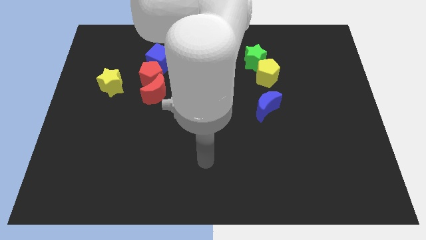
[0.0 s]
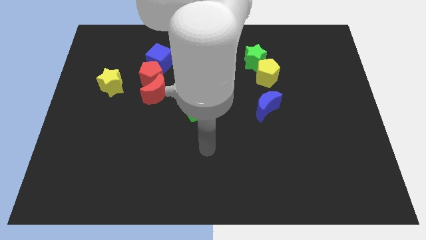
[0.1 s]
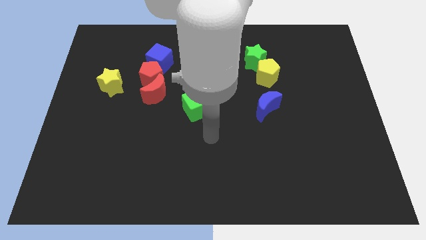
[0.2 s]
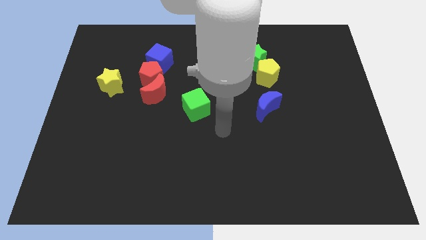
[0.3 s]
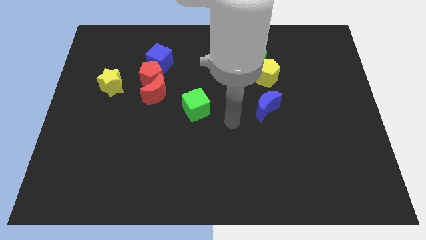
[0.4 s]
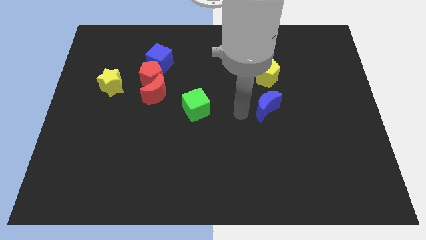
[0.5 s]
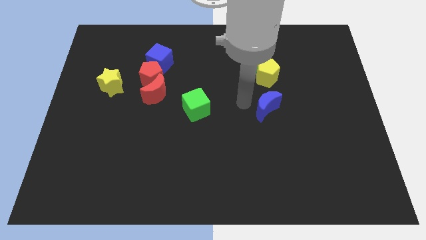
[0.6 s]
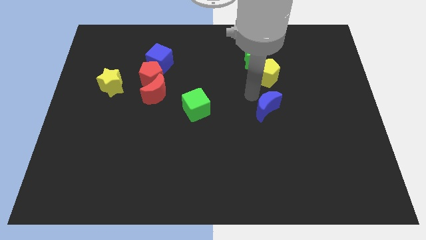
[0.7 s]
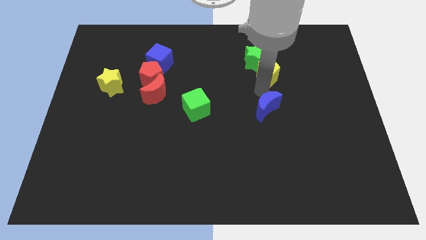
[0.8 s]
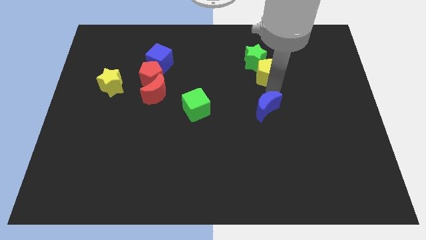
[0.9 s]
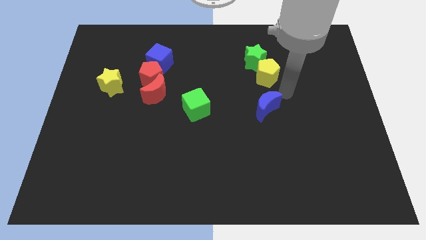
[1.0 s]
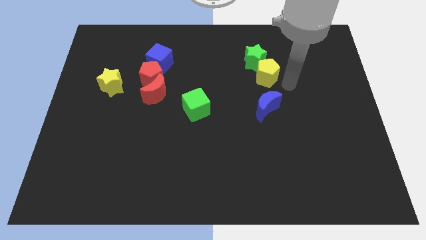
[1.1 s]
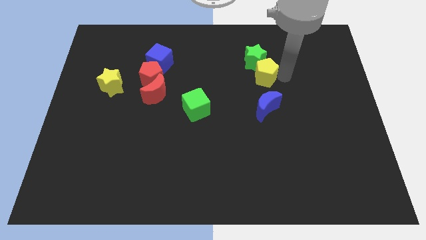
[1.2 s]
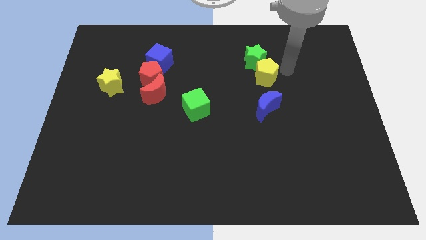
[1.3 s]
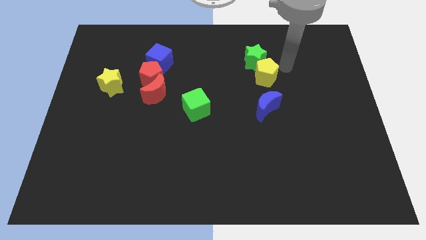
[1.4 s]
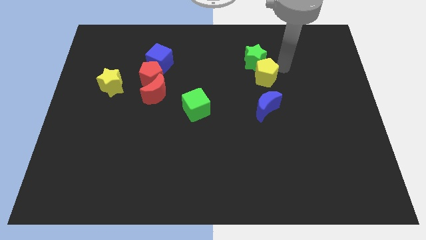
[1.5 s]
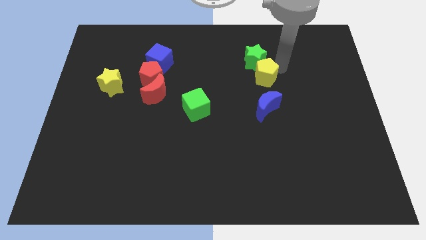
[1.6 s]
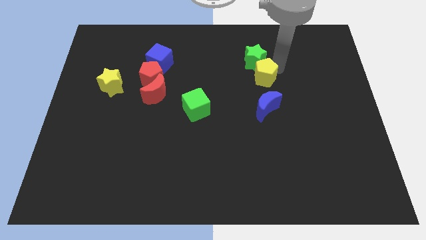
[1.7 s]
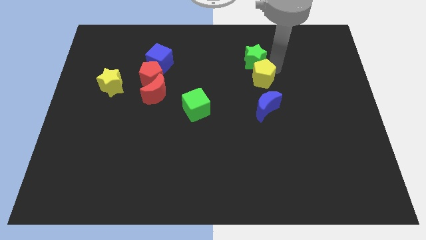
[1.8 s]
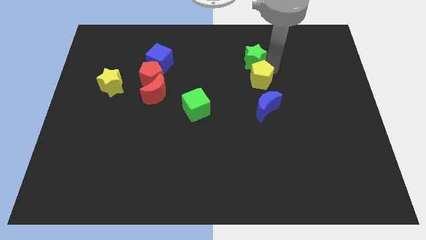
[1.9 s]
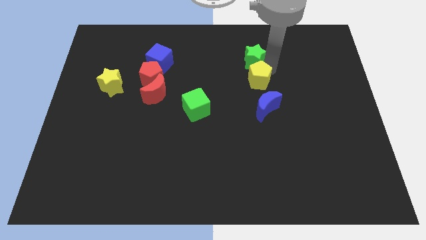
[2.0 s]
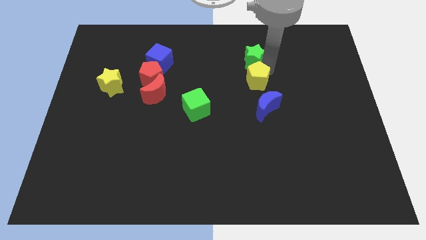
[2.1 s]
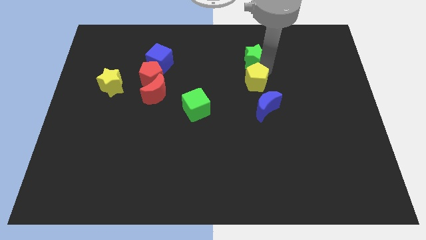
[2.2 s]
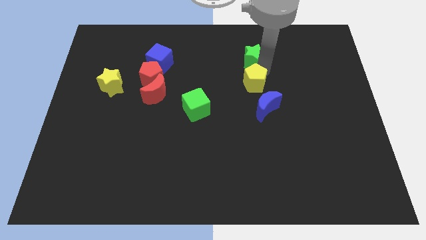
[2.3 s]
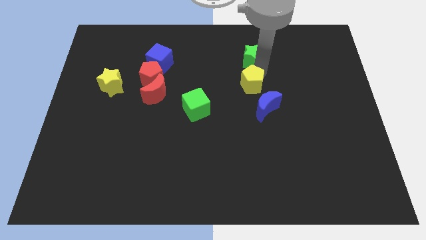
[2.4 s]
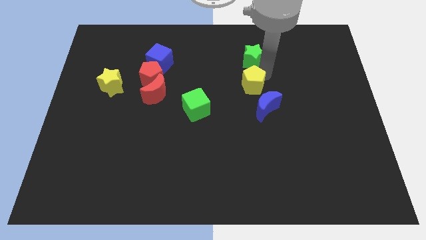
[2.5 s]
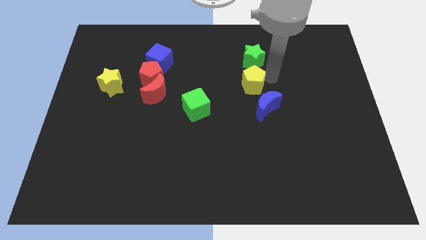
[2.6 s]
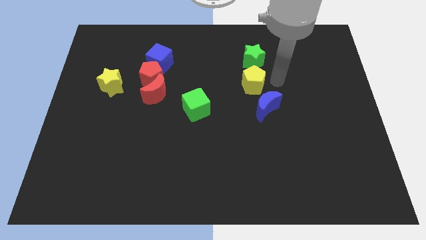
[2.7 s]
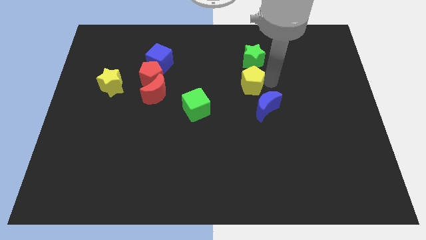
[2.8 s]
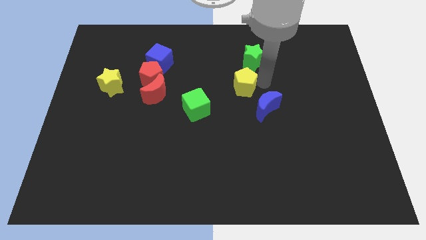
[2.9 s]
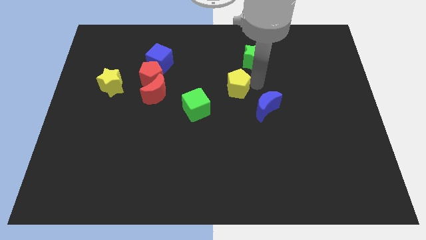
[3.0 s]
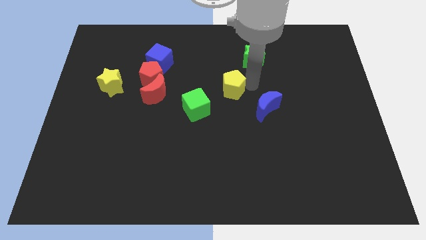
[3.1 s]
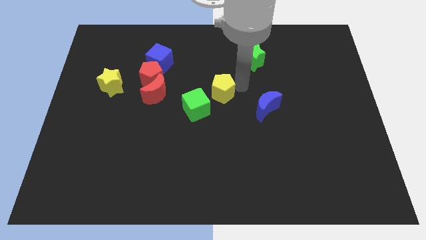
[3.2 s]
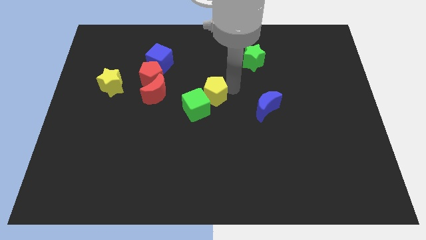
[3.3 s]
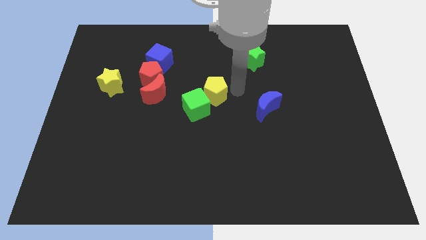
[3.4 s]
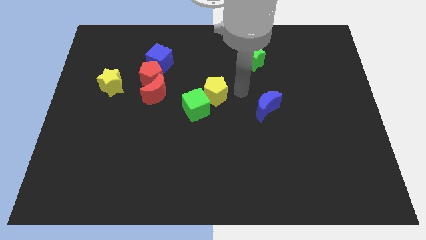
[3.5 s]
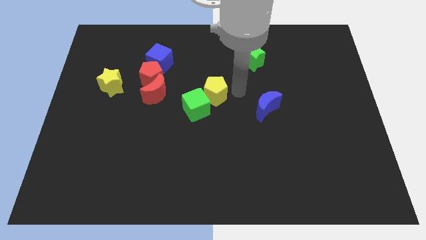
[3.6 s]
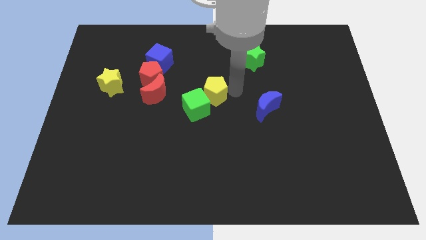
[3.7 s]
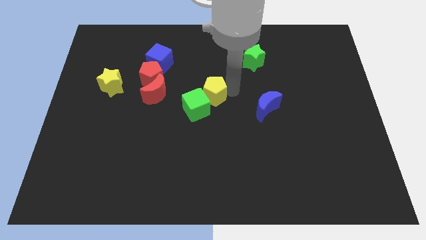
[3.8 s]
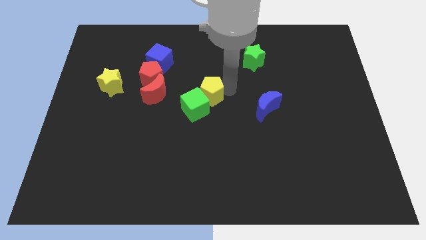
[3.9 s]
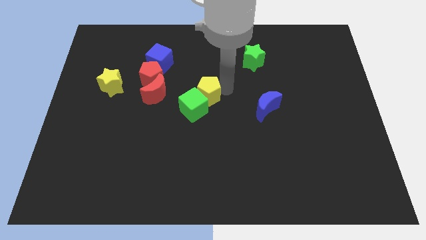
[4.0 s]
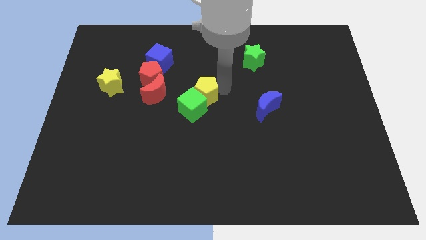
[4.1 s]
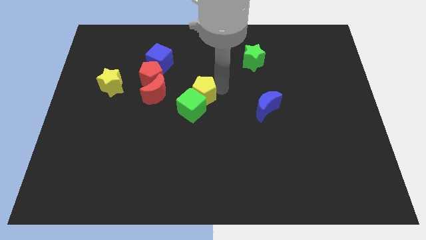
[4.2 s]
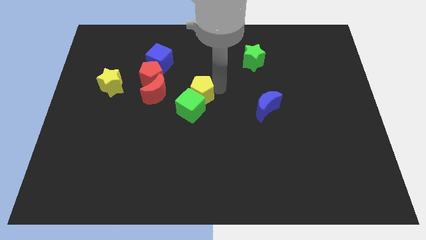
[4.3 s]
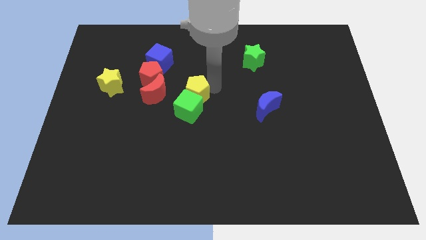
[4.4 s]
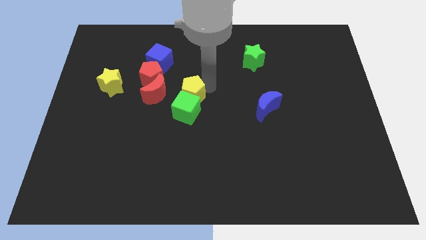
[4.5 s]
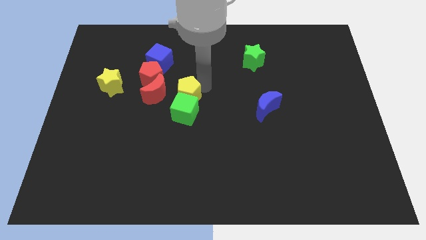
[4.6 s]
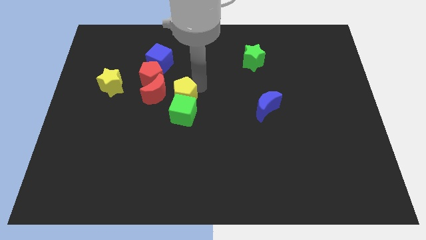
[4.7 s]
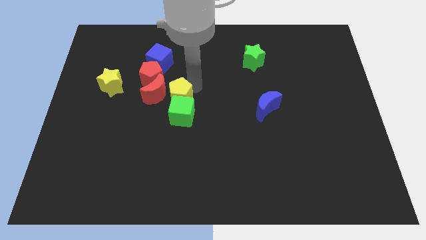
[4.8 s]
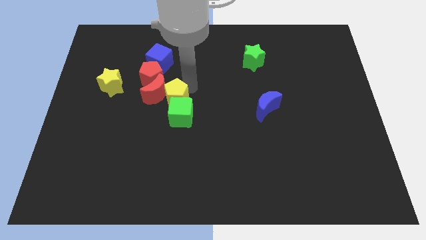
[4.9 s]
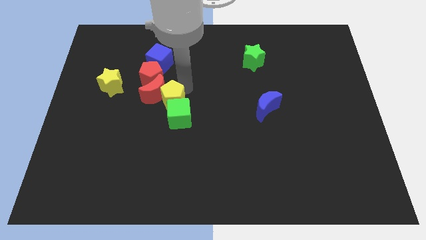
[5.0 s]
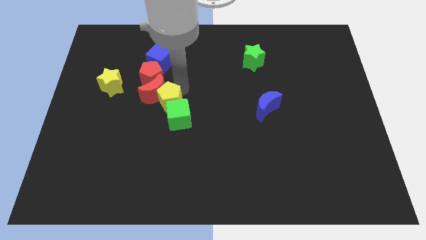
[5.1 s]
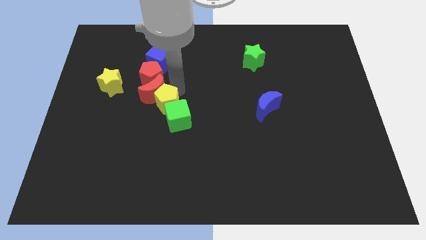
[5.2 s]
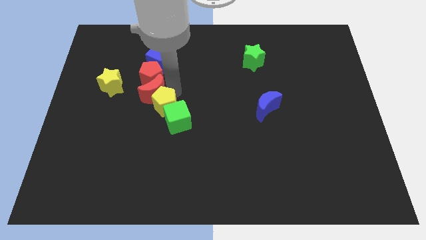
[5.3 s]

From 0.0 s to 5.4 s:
push the yellow pentagon to the left side of the green cube

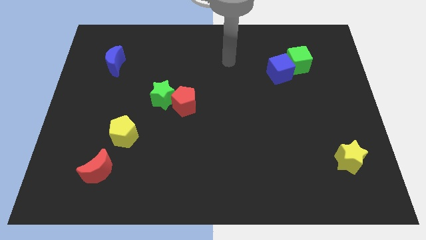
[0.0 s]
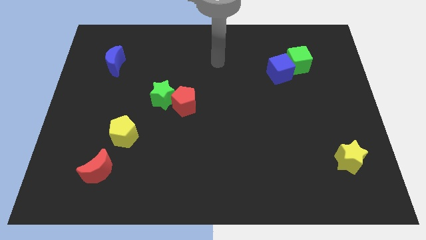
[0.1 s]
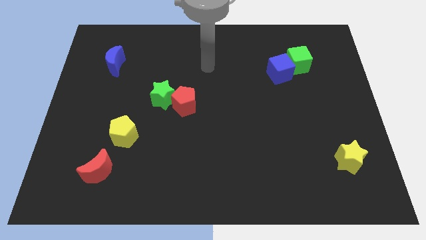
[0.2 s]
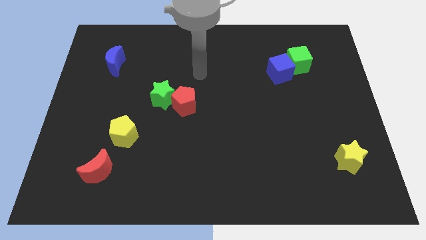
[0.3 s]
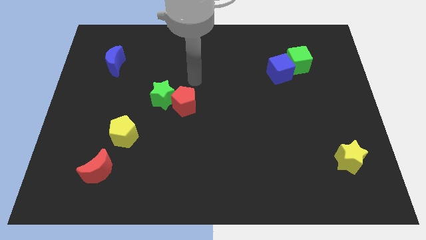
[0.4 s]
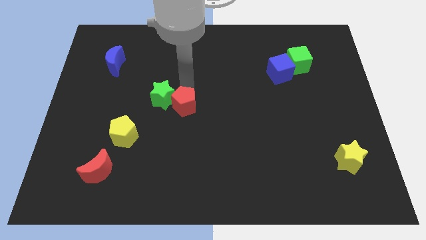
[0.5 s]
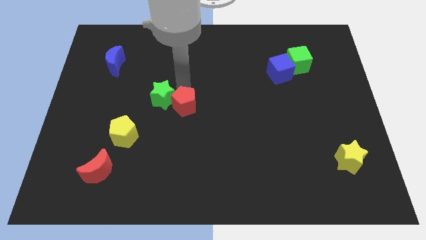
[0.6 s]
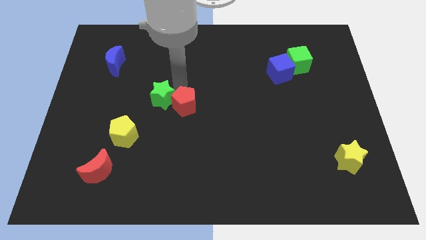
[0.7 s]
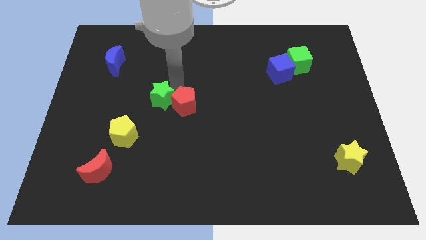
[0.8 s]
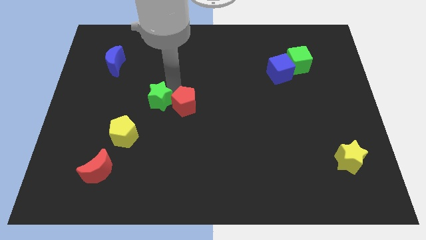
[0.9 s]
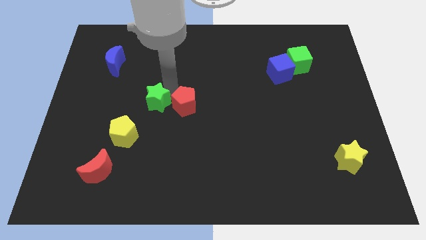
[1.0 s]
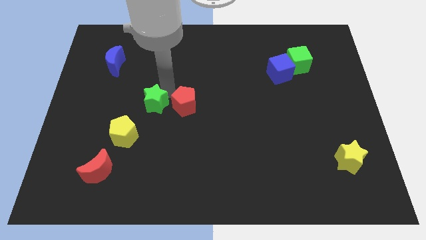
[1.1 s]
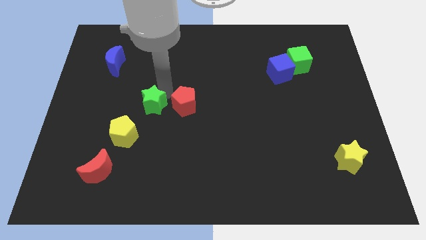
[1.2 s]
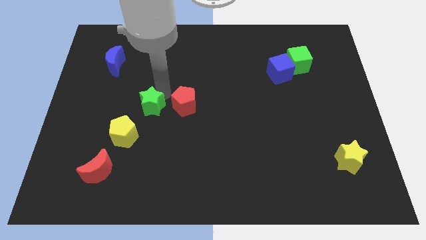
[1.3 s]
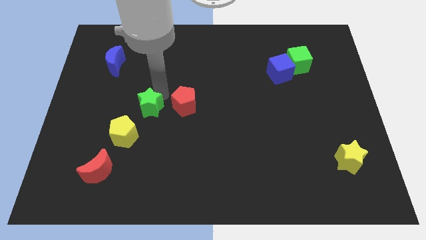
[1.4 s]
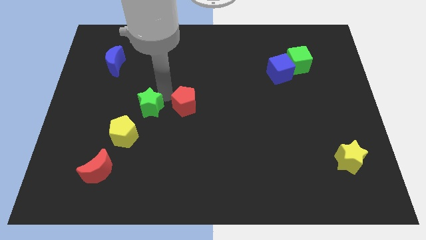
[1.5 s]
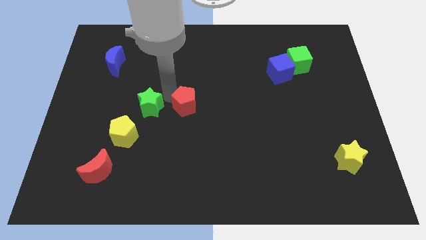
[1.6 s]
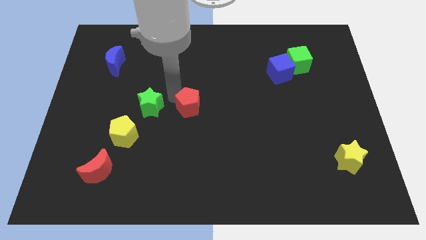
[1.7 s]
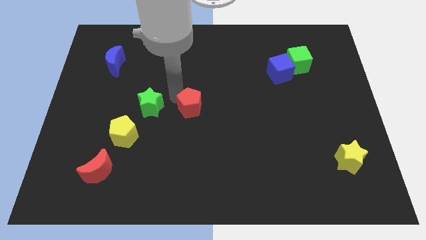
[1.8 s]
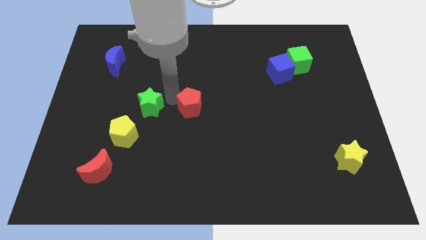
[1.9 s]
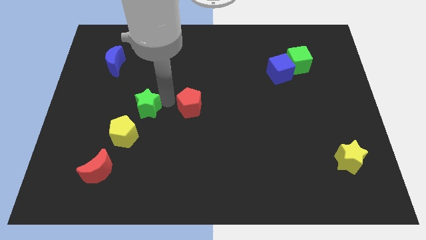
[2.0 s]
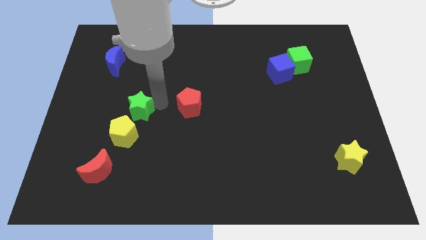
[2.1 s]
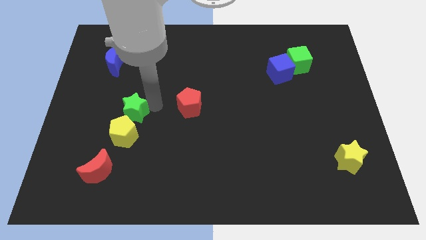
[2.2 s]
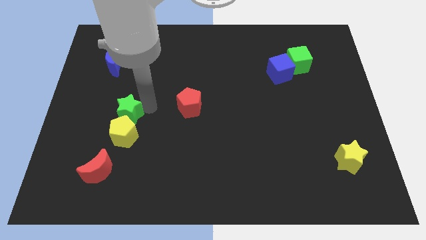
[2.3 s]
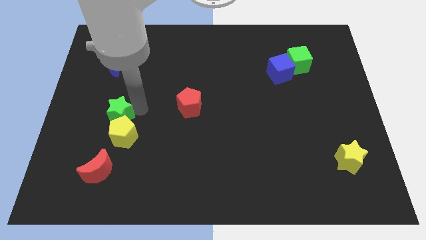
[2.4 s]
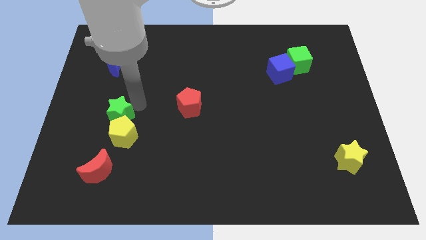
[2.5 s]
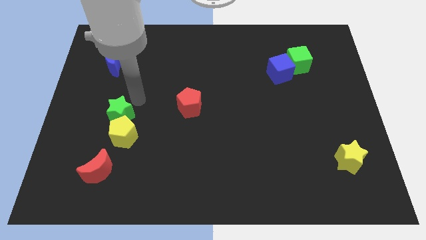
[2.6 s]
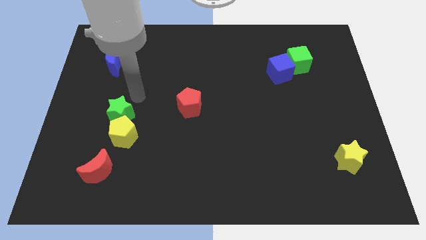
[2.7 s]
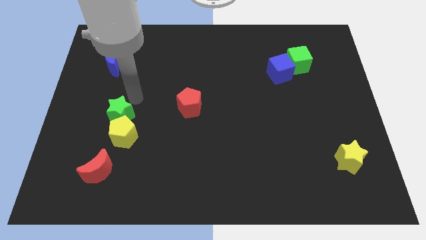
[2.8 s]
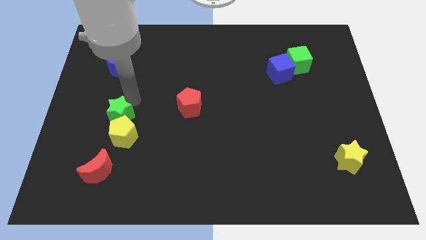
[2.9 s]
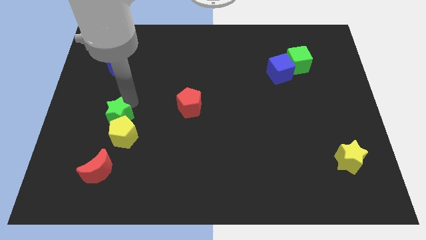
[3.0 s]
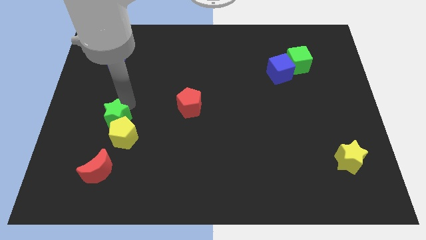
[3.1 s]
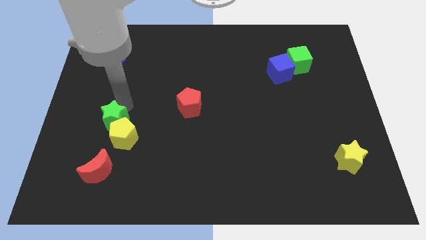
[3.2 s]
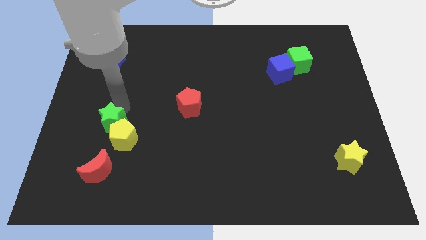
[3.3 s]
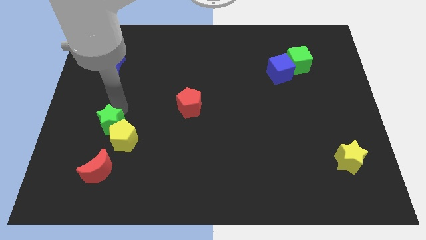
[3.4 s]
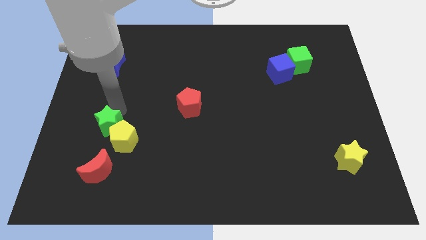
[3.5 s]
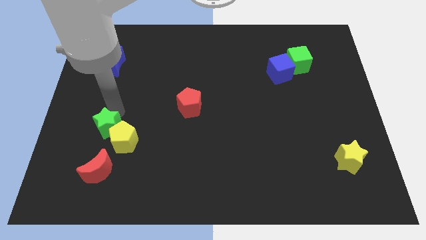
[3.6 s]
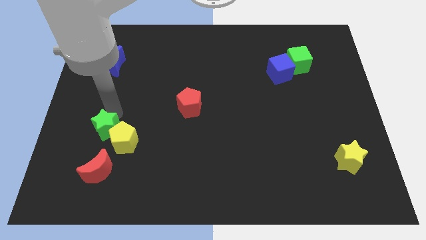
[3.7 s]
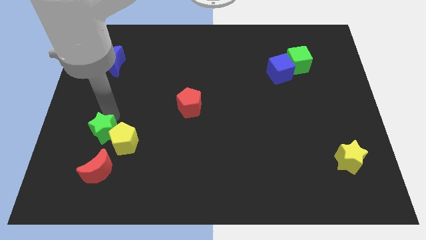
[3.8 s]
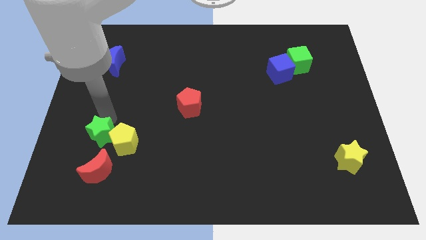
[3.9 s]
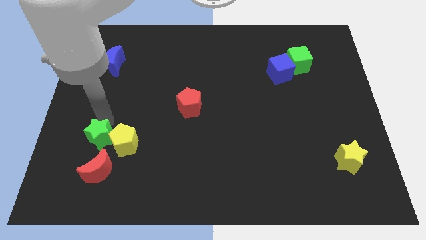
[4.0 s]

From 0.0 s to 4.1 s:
put the green star to the bottom left side of the yellow pentagon
